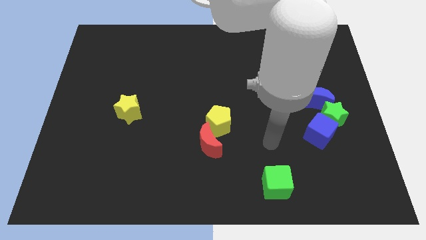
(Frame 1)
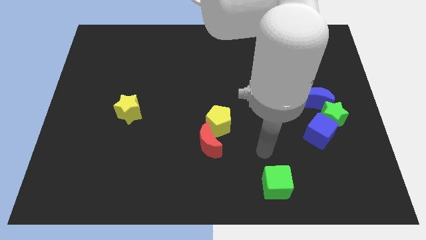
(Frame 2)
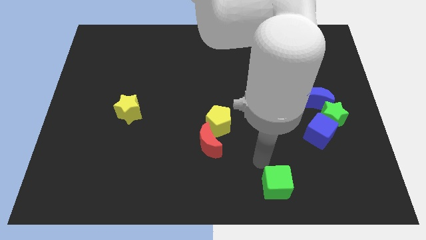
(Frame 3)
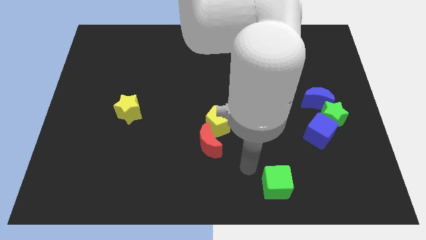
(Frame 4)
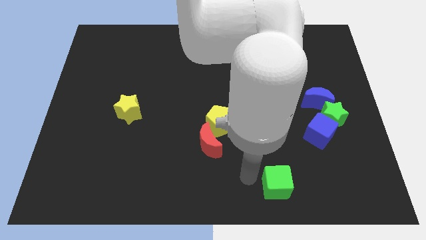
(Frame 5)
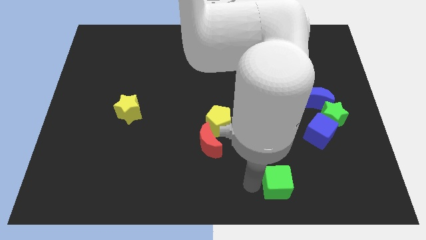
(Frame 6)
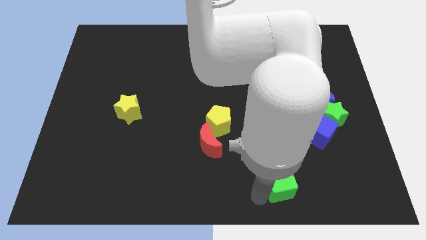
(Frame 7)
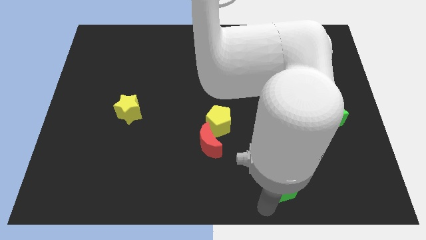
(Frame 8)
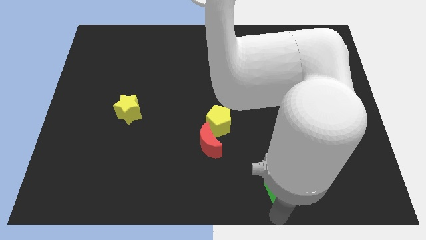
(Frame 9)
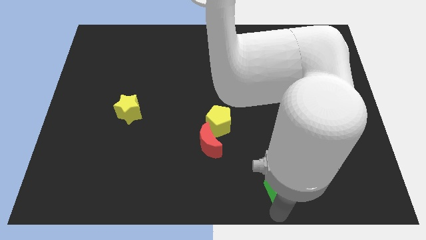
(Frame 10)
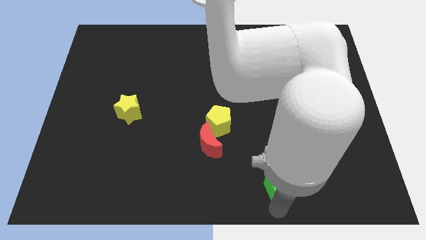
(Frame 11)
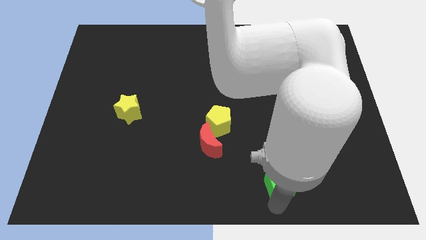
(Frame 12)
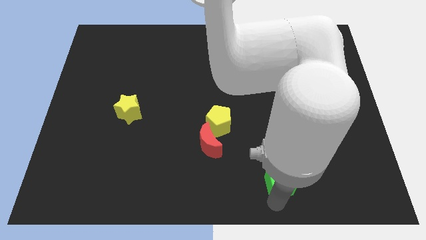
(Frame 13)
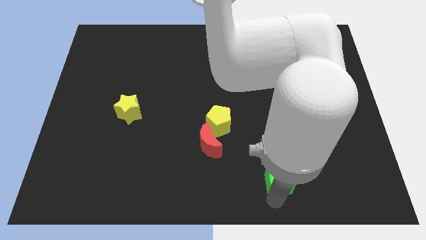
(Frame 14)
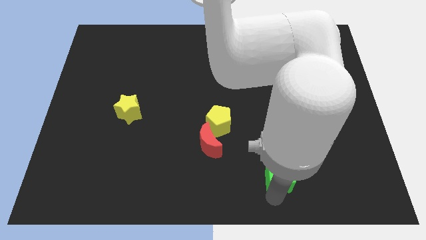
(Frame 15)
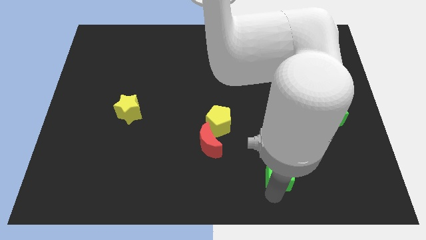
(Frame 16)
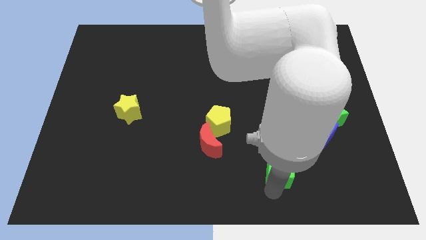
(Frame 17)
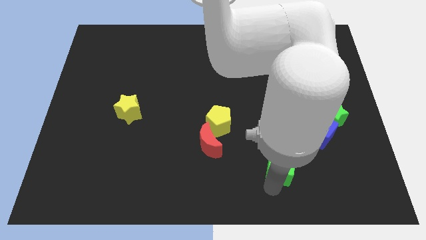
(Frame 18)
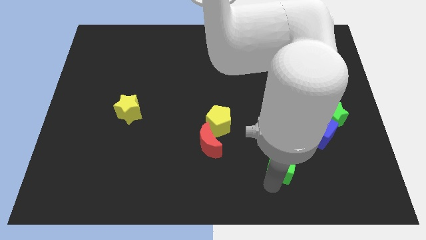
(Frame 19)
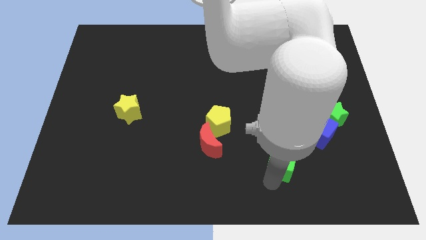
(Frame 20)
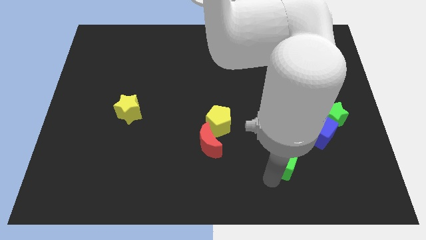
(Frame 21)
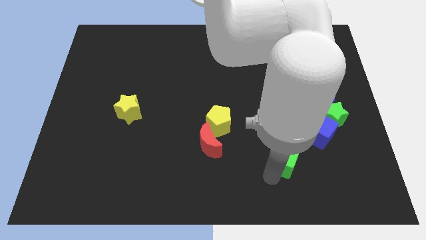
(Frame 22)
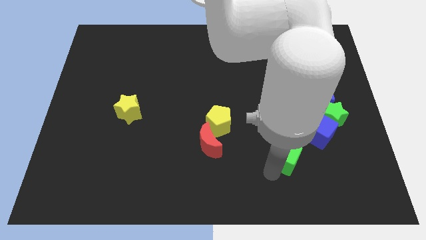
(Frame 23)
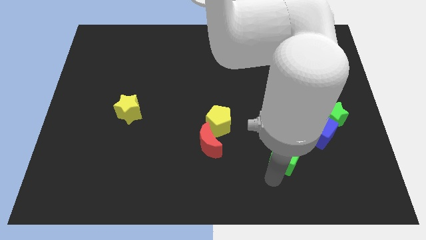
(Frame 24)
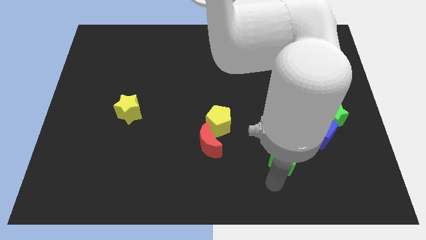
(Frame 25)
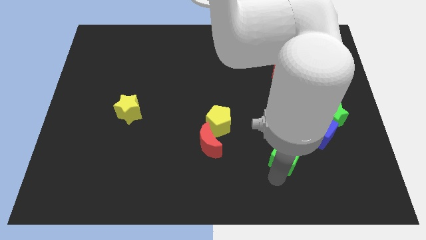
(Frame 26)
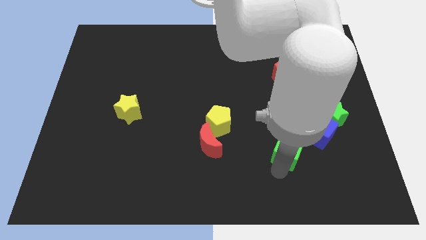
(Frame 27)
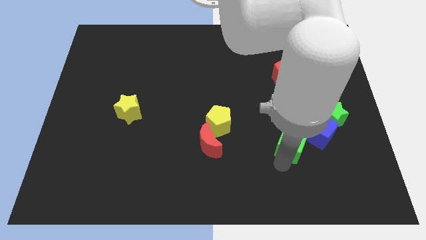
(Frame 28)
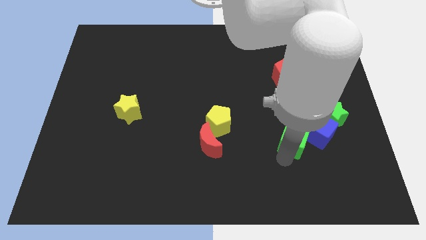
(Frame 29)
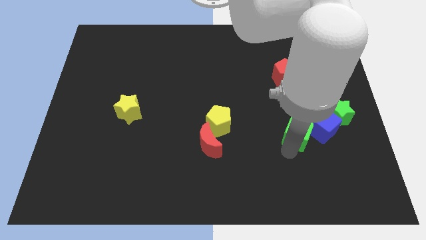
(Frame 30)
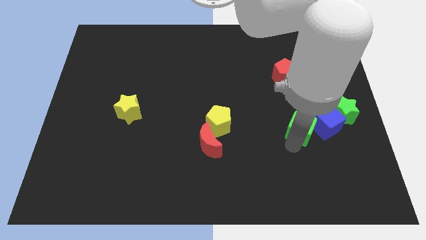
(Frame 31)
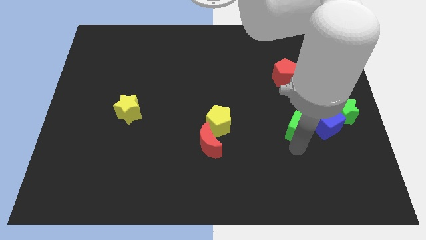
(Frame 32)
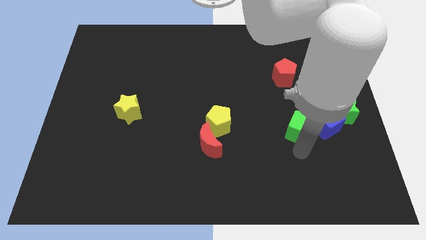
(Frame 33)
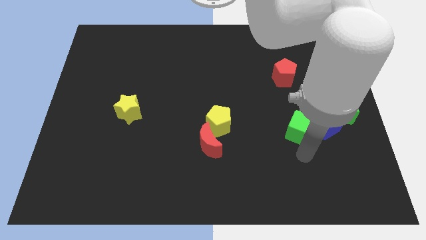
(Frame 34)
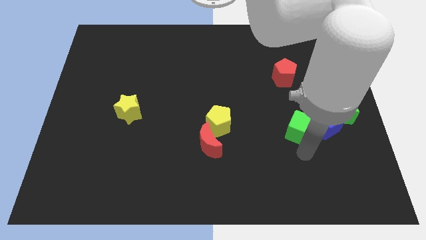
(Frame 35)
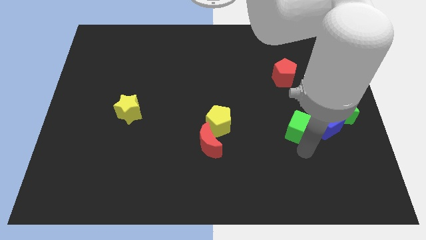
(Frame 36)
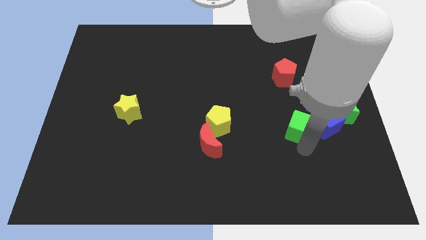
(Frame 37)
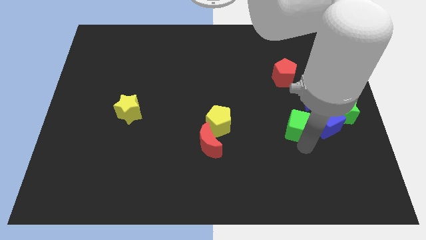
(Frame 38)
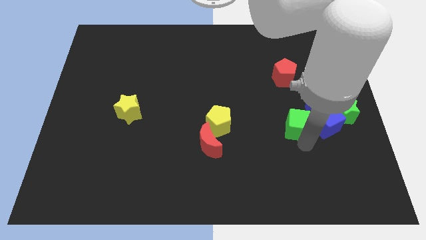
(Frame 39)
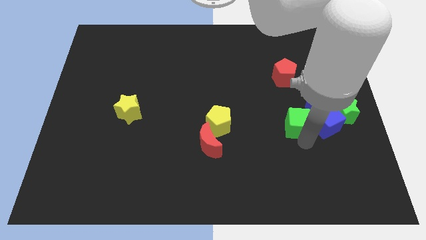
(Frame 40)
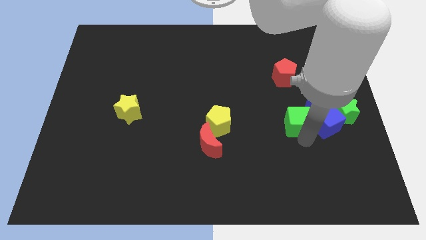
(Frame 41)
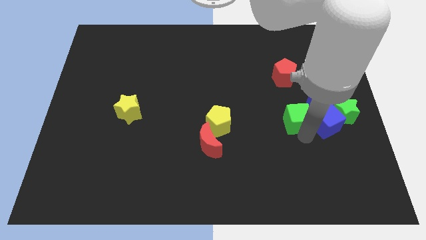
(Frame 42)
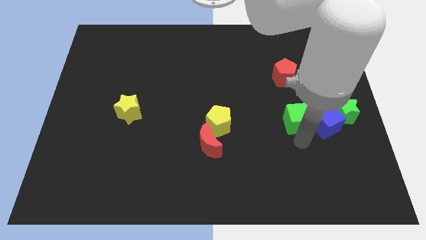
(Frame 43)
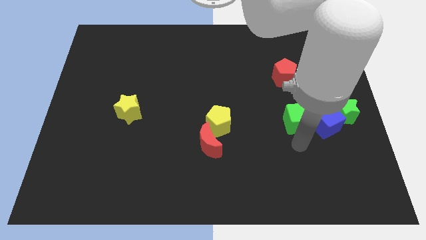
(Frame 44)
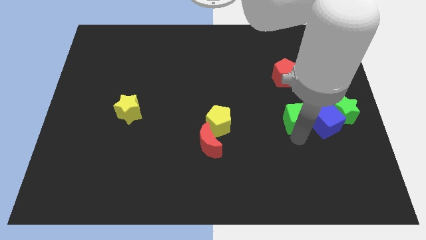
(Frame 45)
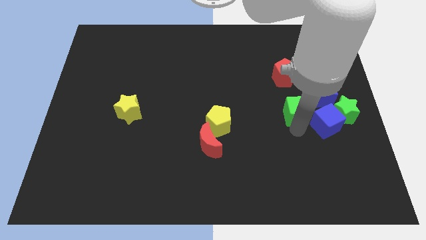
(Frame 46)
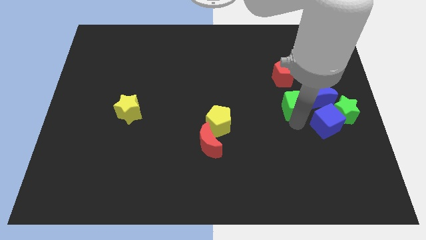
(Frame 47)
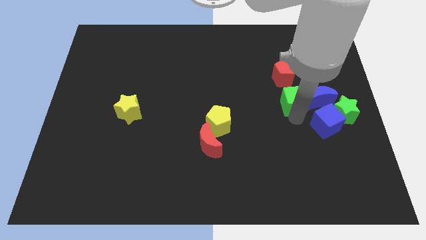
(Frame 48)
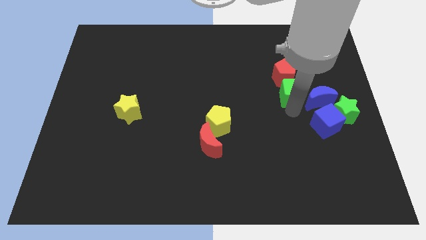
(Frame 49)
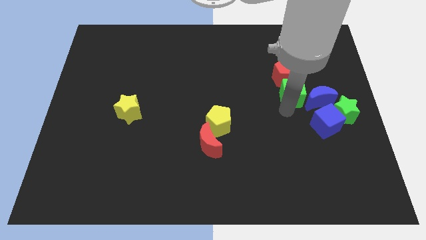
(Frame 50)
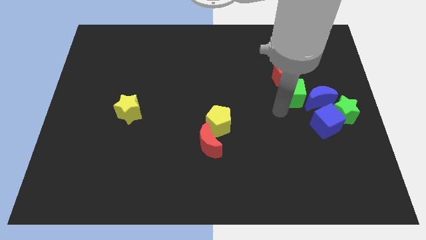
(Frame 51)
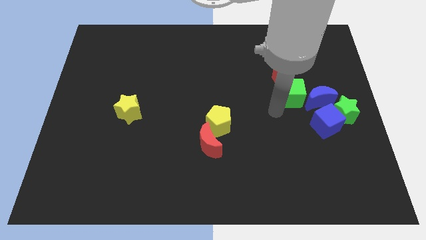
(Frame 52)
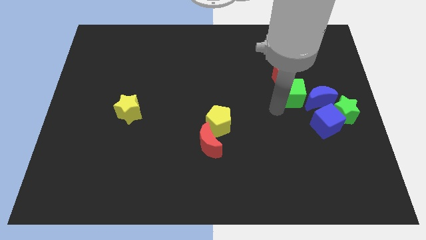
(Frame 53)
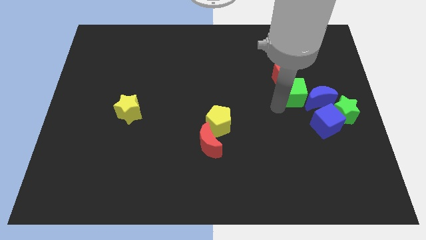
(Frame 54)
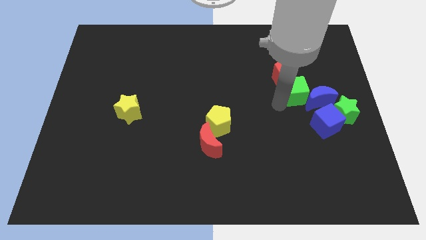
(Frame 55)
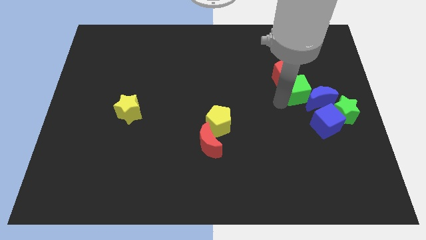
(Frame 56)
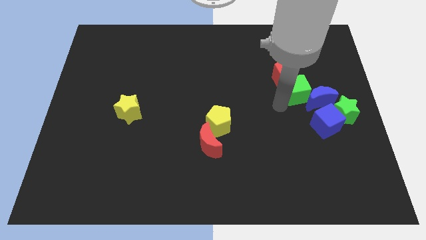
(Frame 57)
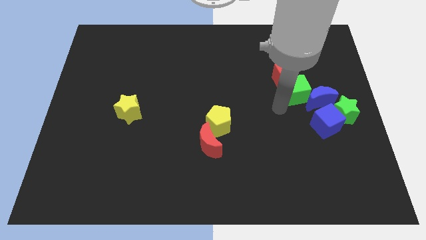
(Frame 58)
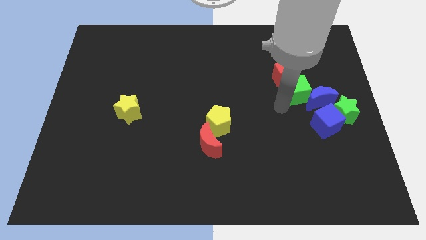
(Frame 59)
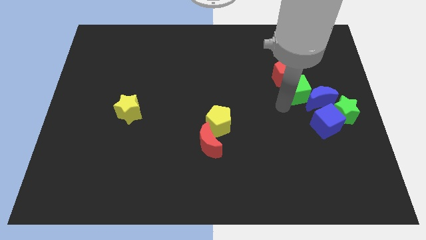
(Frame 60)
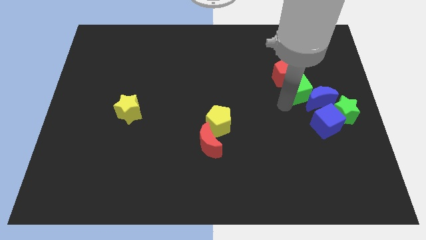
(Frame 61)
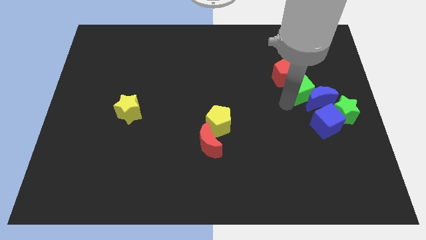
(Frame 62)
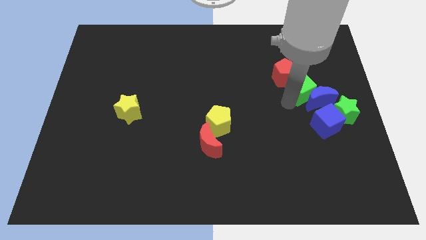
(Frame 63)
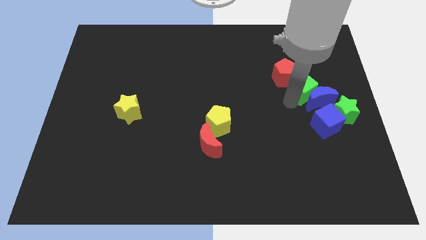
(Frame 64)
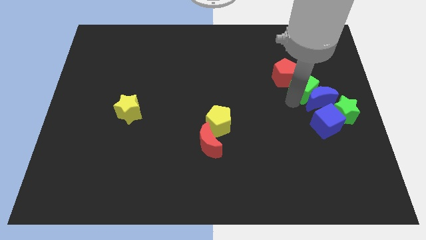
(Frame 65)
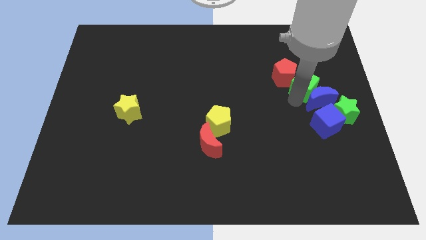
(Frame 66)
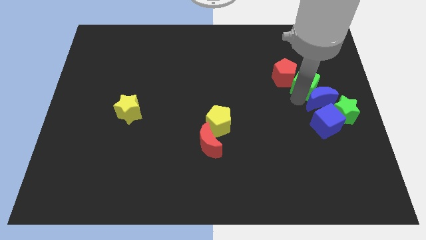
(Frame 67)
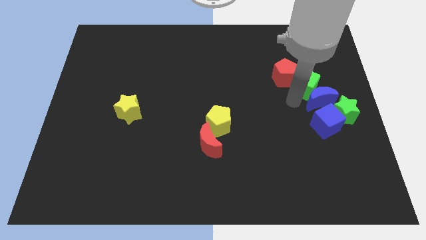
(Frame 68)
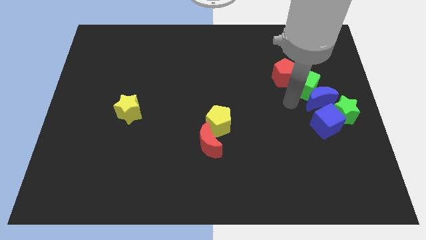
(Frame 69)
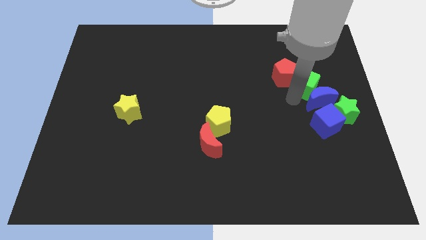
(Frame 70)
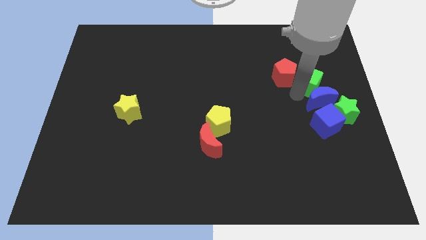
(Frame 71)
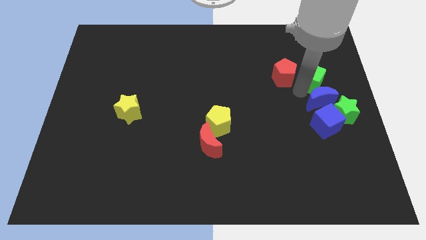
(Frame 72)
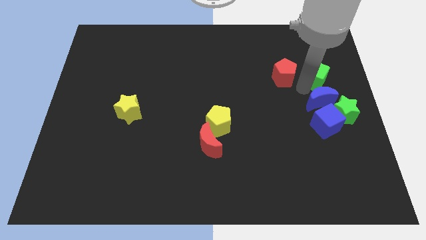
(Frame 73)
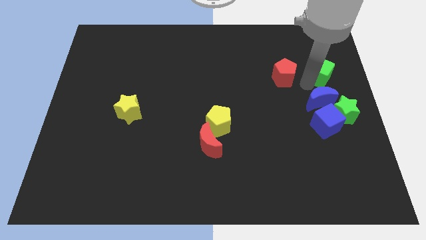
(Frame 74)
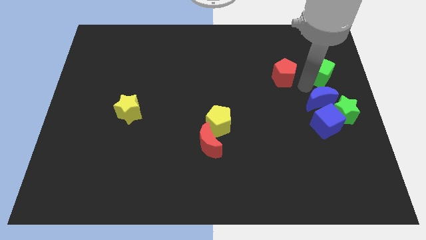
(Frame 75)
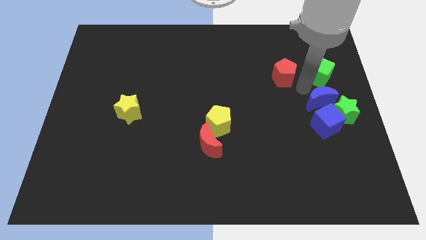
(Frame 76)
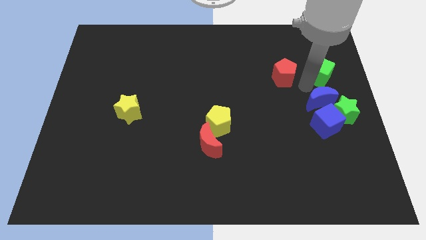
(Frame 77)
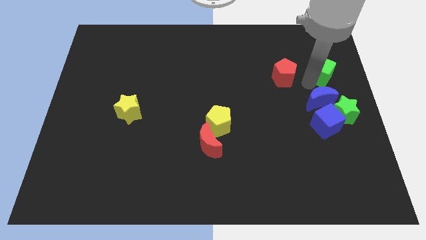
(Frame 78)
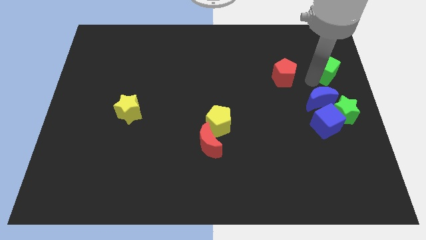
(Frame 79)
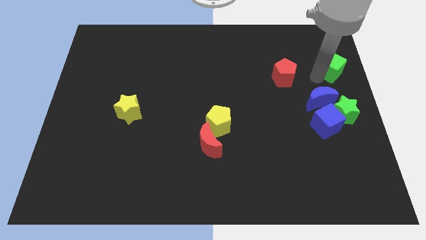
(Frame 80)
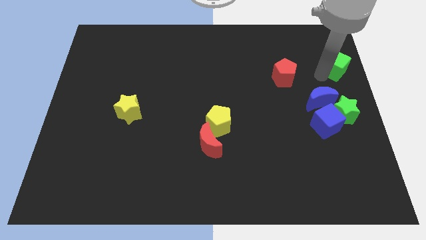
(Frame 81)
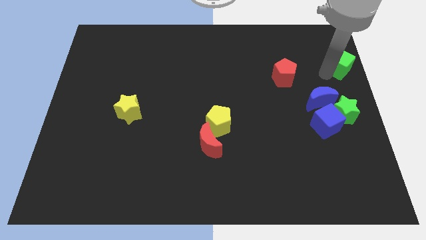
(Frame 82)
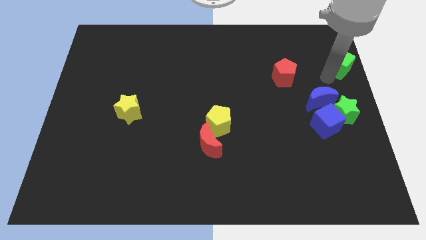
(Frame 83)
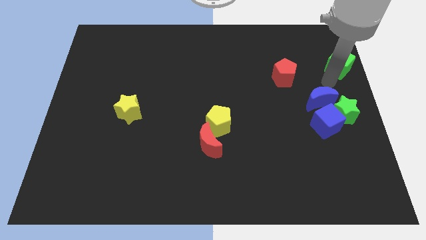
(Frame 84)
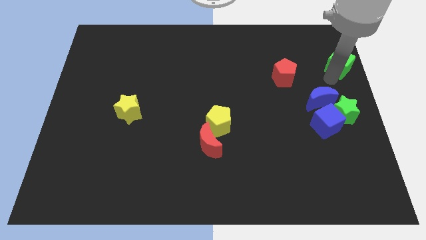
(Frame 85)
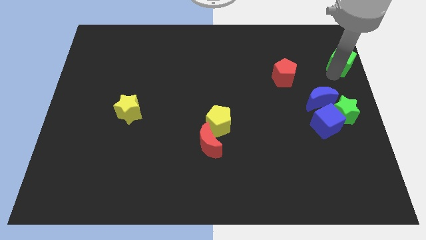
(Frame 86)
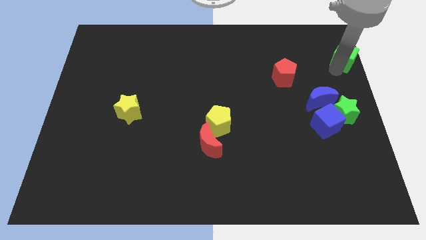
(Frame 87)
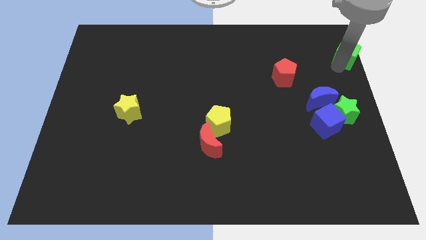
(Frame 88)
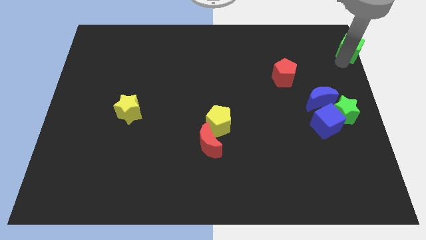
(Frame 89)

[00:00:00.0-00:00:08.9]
push the green cube to the upper right corner
